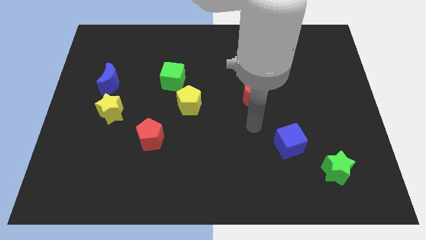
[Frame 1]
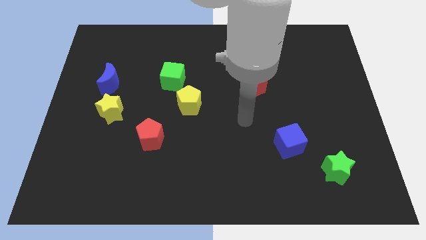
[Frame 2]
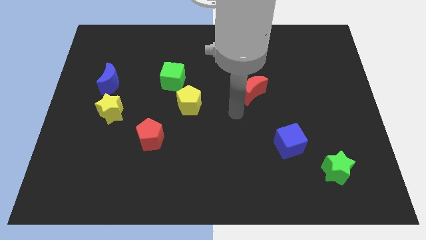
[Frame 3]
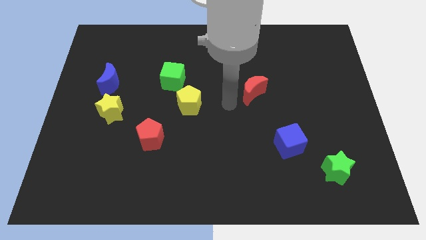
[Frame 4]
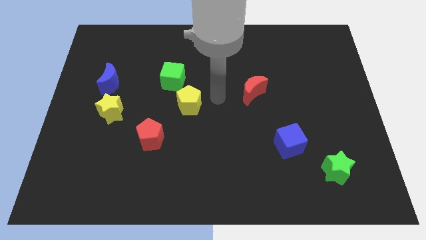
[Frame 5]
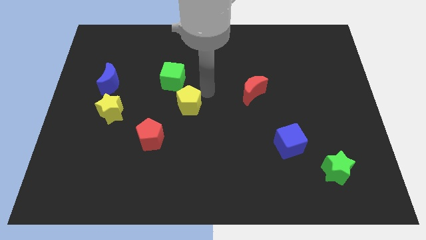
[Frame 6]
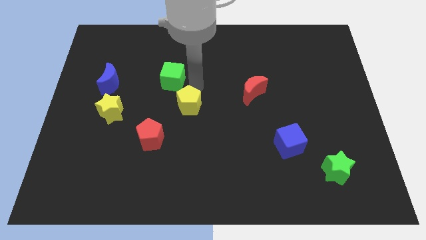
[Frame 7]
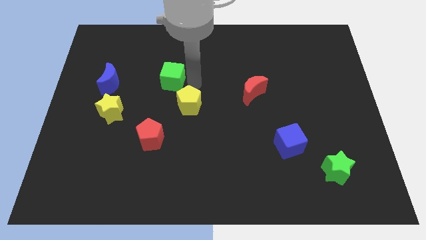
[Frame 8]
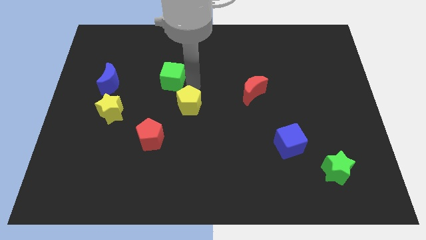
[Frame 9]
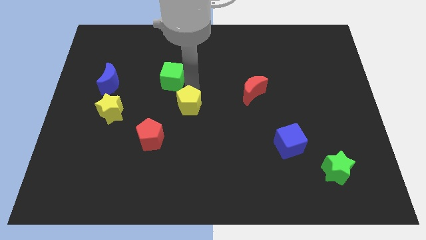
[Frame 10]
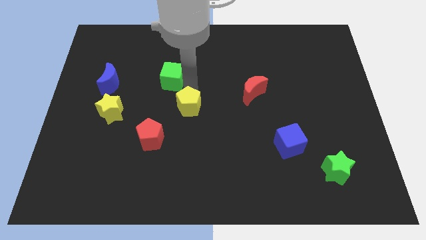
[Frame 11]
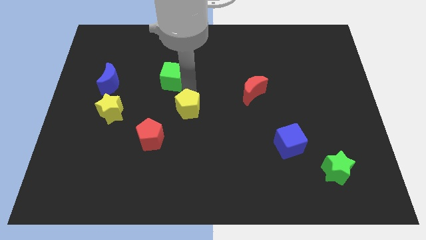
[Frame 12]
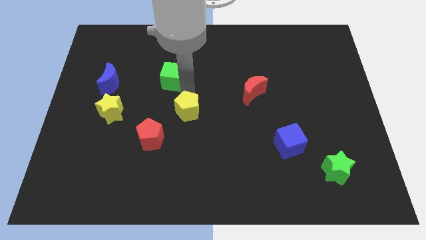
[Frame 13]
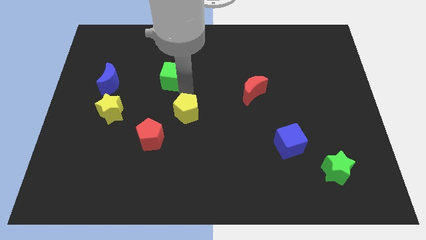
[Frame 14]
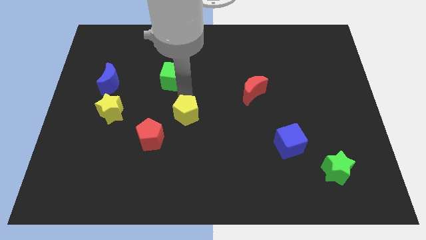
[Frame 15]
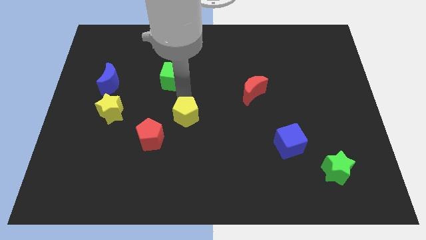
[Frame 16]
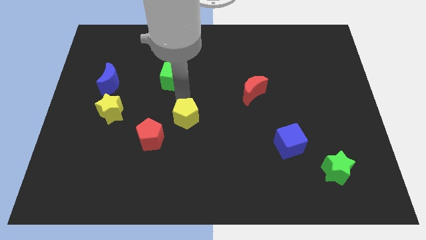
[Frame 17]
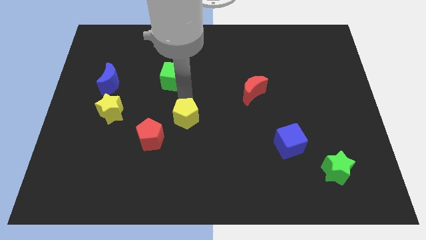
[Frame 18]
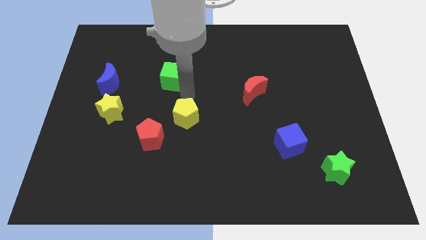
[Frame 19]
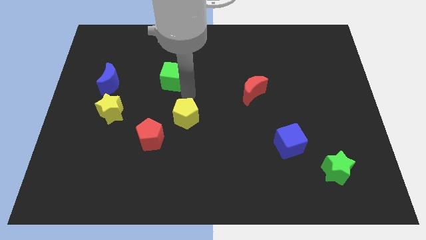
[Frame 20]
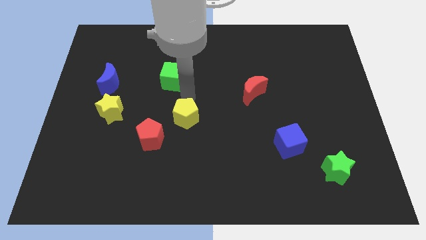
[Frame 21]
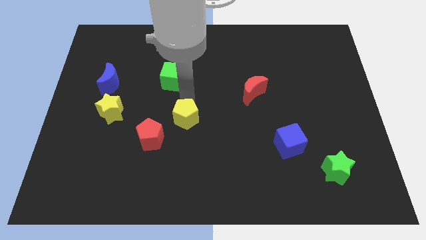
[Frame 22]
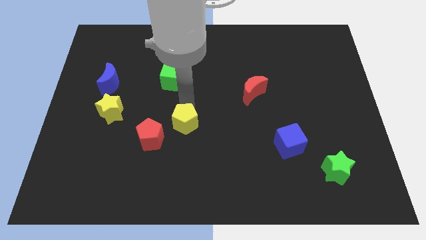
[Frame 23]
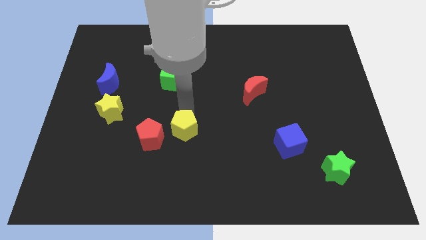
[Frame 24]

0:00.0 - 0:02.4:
slide the yellow pentagon downwards a bit

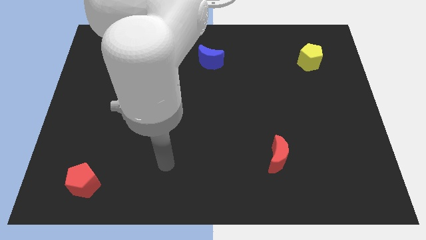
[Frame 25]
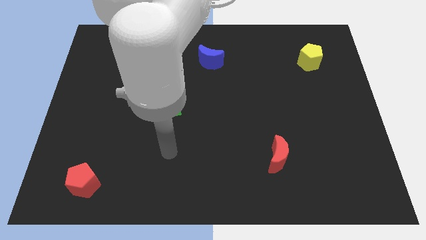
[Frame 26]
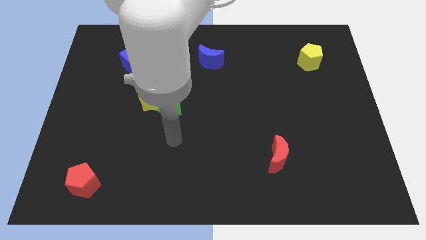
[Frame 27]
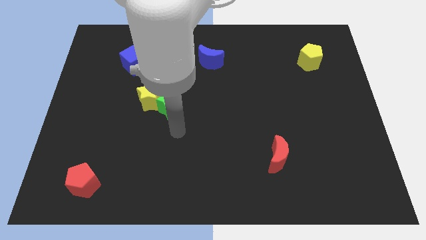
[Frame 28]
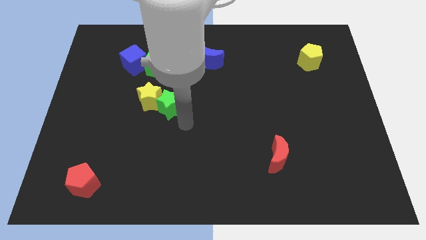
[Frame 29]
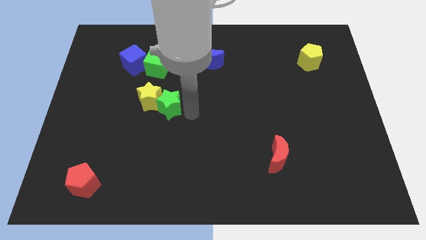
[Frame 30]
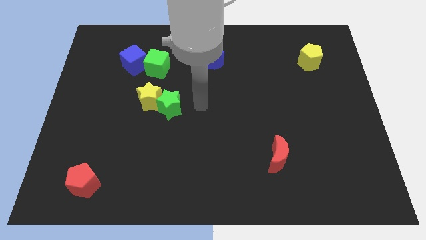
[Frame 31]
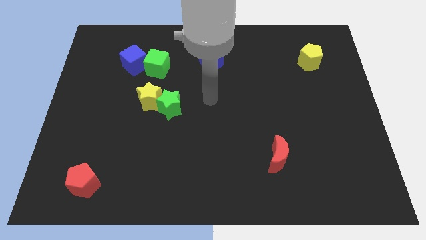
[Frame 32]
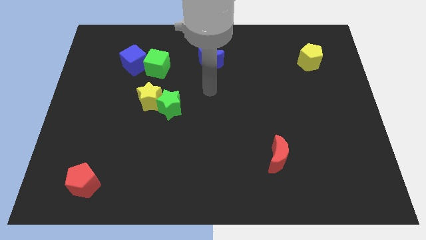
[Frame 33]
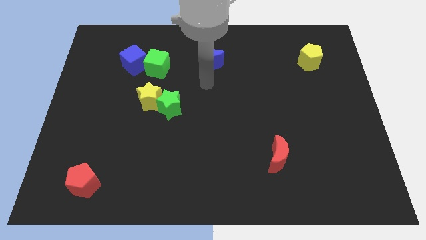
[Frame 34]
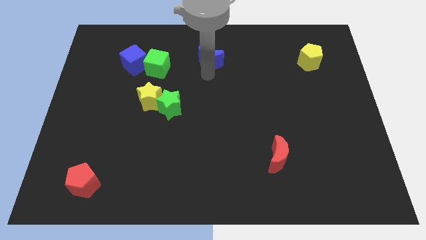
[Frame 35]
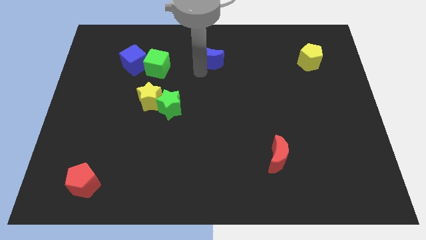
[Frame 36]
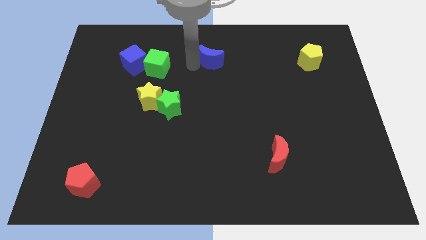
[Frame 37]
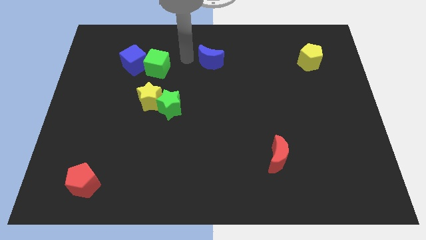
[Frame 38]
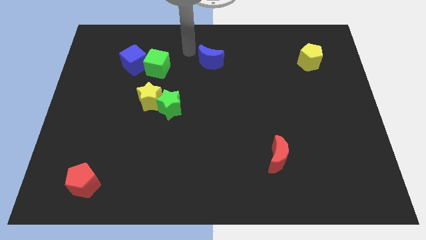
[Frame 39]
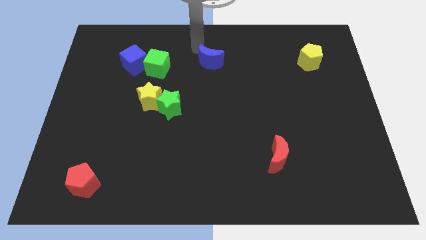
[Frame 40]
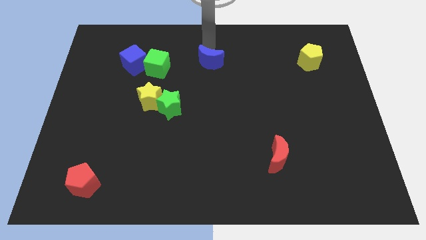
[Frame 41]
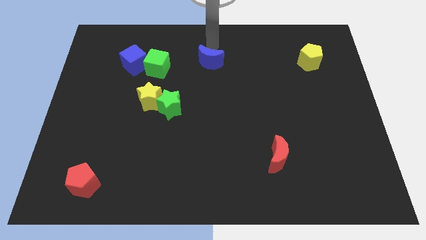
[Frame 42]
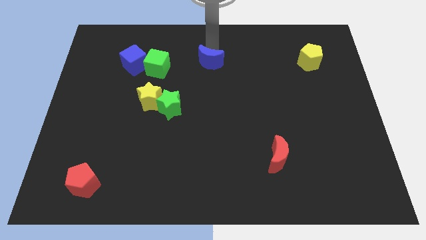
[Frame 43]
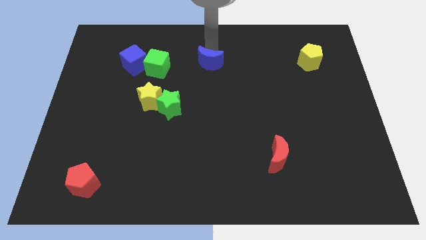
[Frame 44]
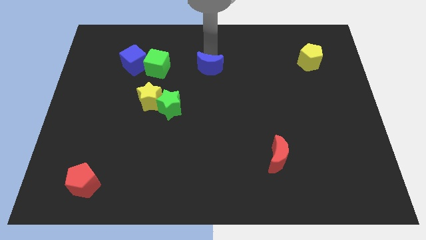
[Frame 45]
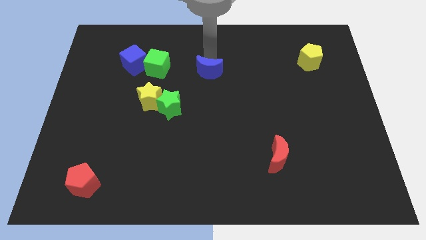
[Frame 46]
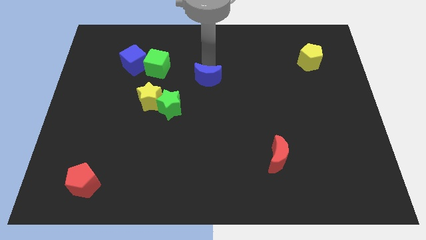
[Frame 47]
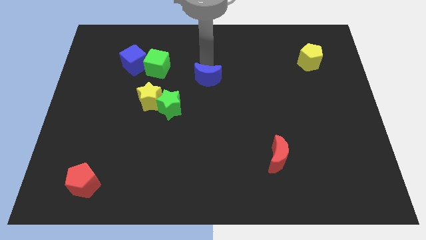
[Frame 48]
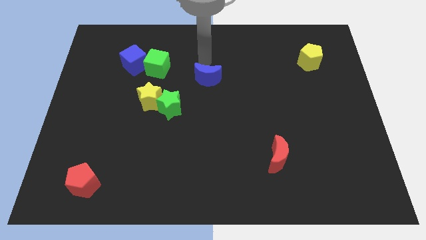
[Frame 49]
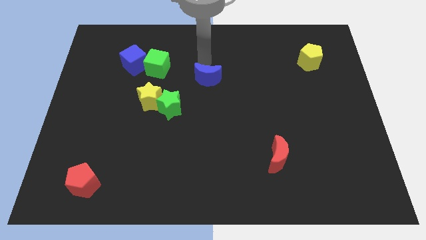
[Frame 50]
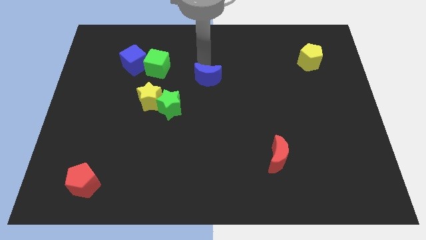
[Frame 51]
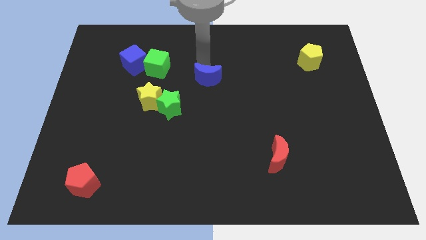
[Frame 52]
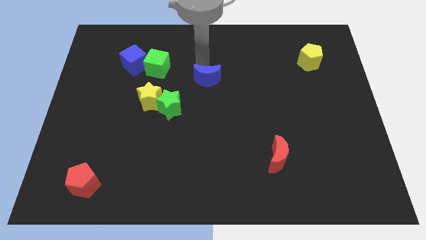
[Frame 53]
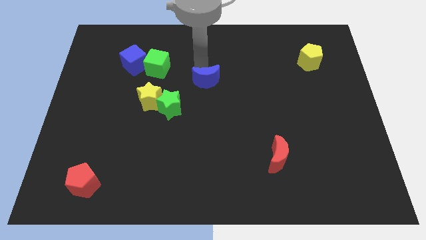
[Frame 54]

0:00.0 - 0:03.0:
slide the blue moon down a little

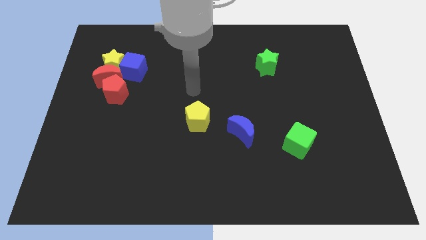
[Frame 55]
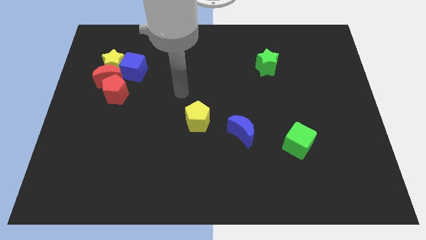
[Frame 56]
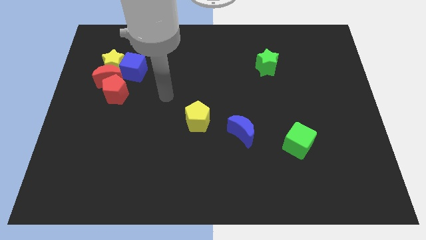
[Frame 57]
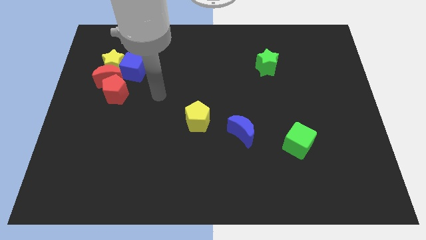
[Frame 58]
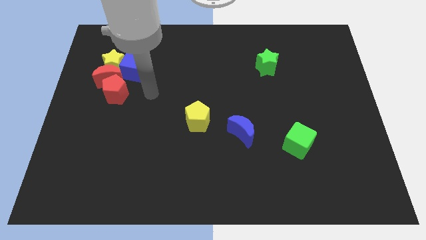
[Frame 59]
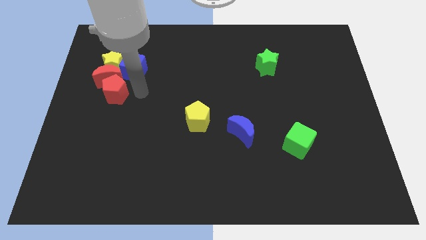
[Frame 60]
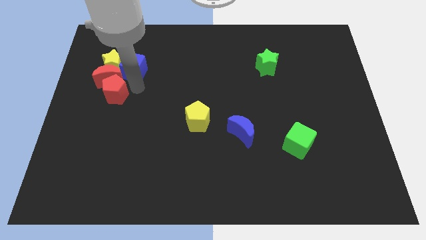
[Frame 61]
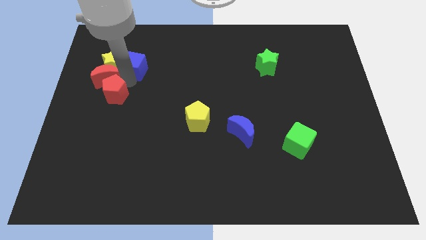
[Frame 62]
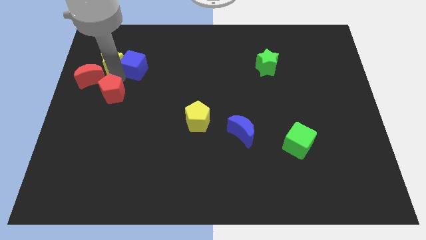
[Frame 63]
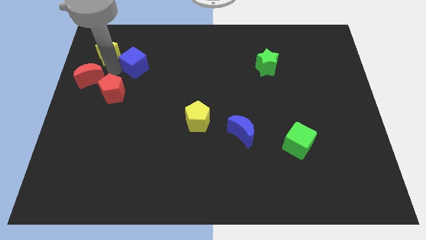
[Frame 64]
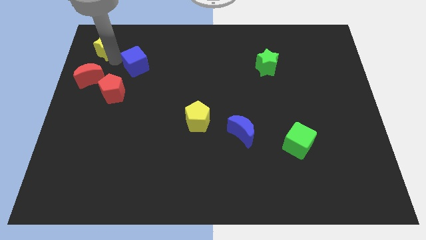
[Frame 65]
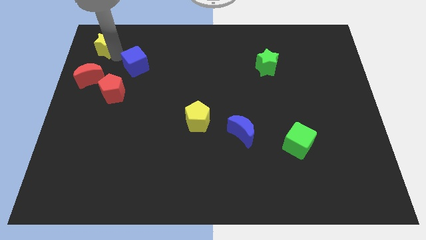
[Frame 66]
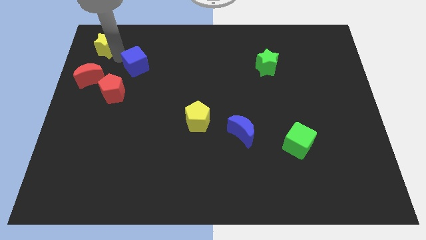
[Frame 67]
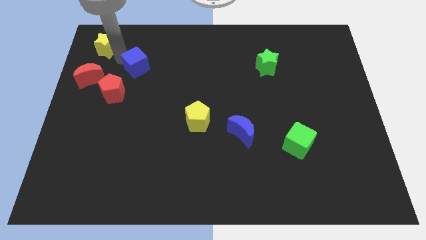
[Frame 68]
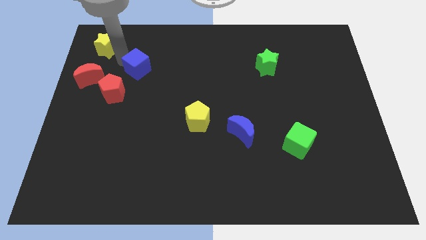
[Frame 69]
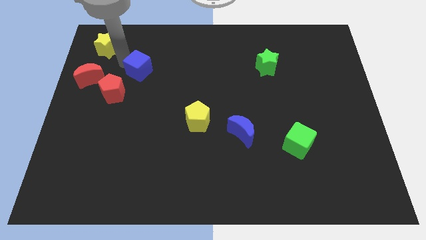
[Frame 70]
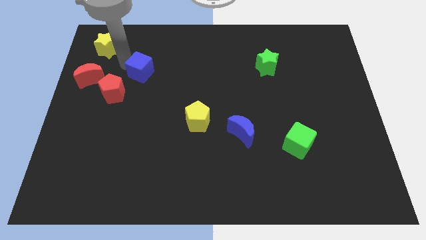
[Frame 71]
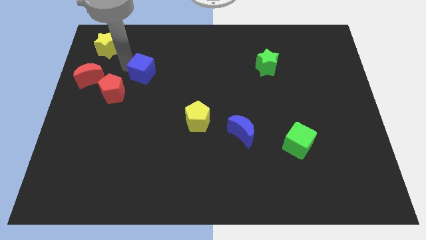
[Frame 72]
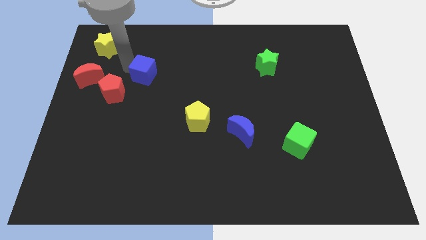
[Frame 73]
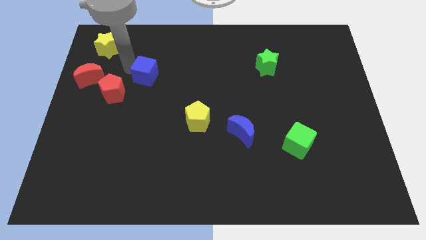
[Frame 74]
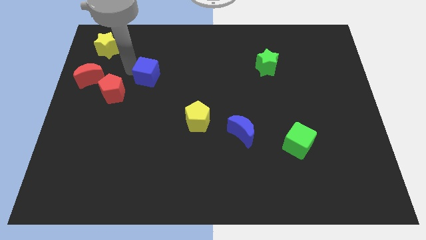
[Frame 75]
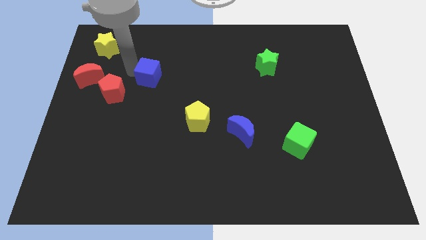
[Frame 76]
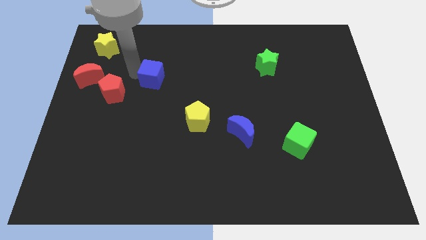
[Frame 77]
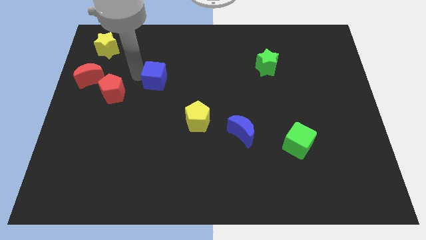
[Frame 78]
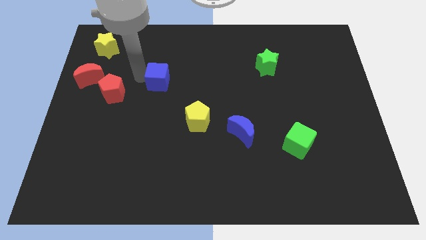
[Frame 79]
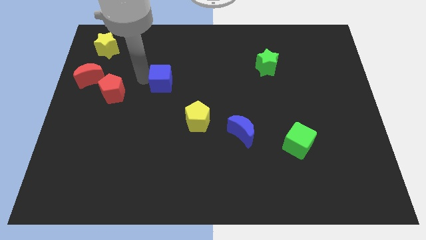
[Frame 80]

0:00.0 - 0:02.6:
move the blue cube a little right

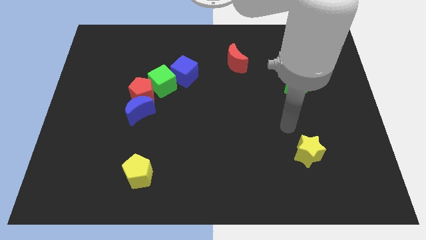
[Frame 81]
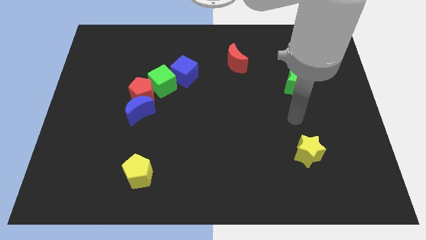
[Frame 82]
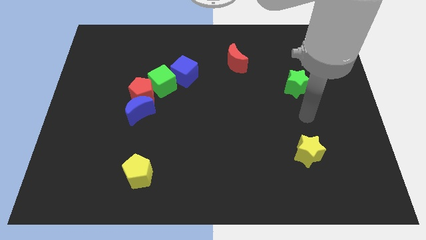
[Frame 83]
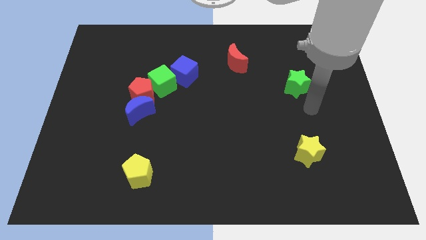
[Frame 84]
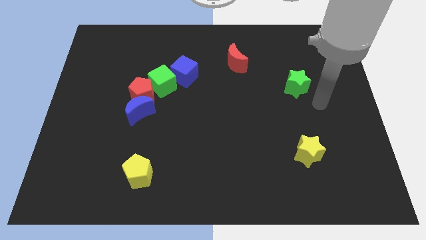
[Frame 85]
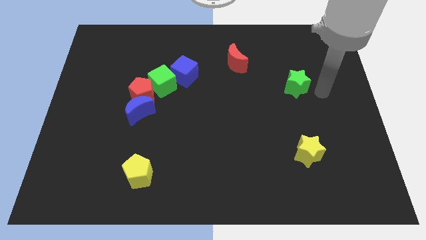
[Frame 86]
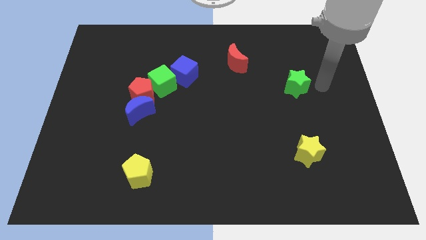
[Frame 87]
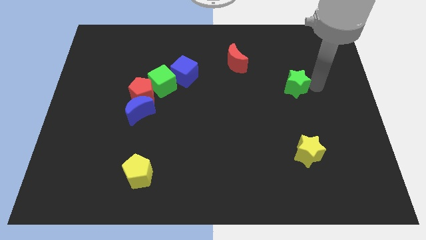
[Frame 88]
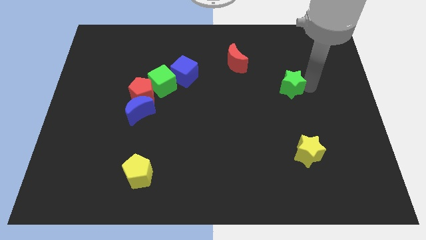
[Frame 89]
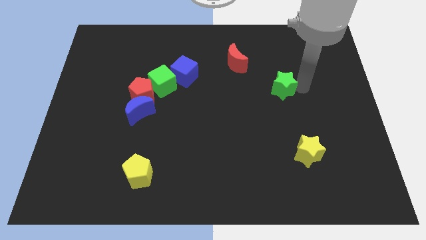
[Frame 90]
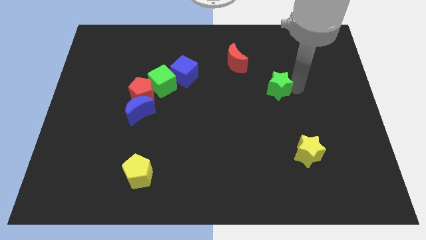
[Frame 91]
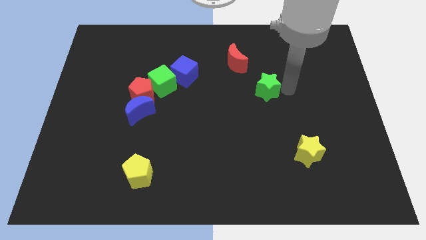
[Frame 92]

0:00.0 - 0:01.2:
slightly move the green star left
